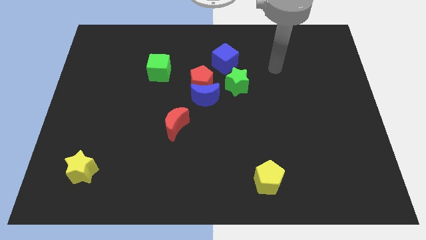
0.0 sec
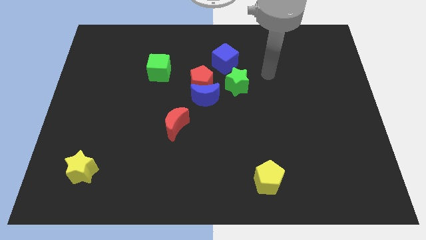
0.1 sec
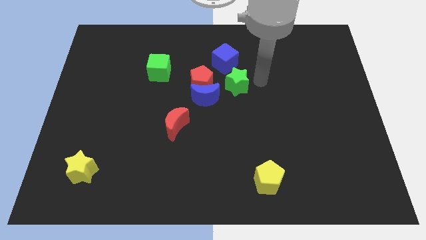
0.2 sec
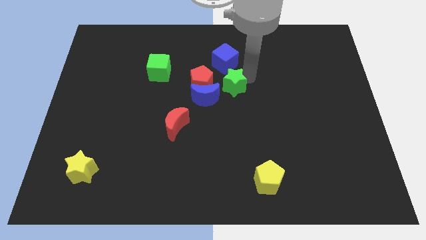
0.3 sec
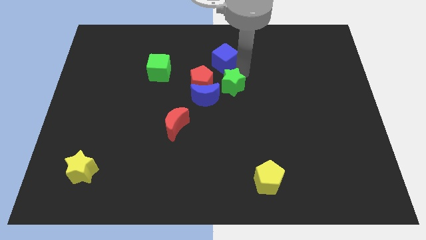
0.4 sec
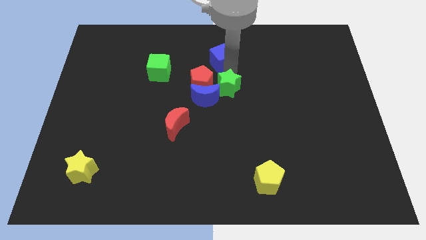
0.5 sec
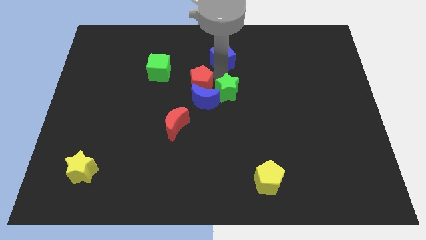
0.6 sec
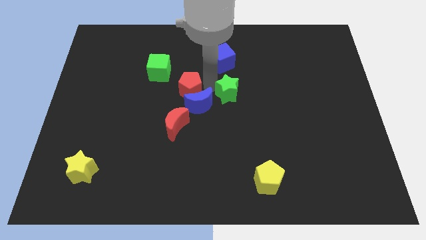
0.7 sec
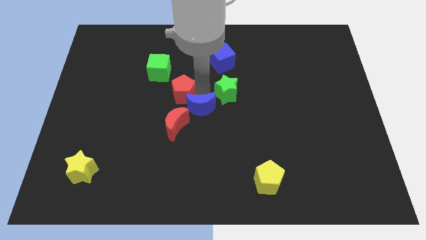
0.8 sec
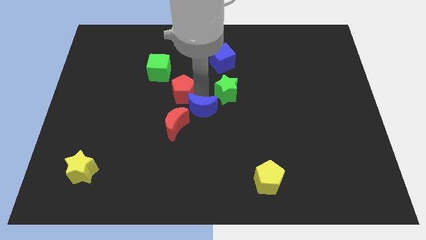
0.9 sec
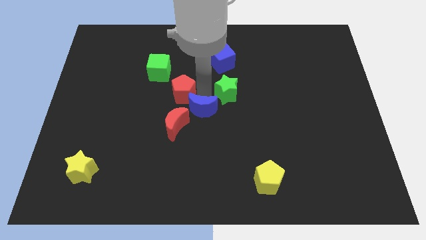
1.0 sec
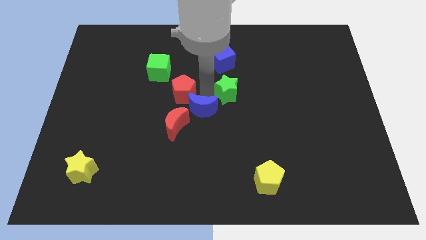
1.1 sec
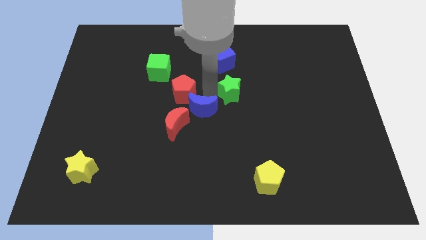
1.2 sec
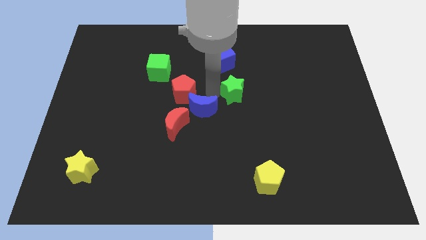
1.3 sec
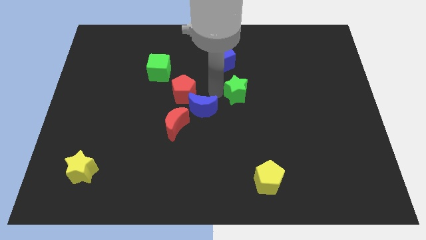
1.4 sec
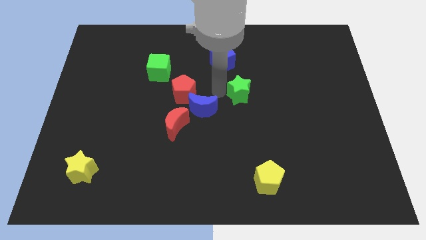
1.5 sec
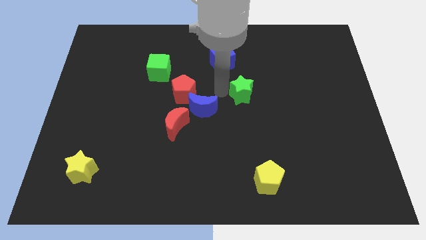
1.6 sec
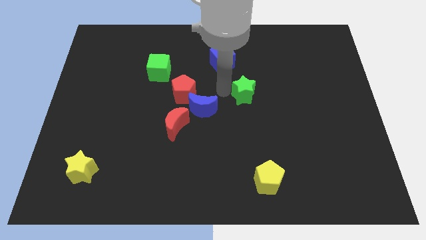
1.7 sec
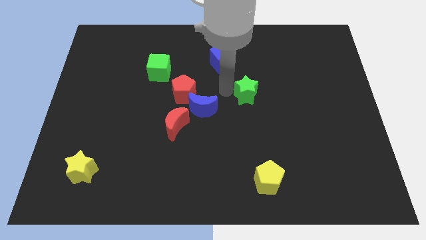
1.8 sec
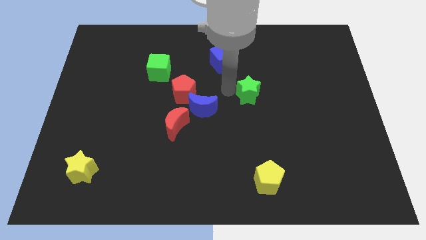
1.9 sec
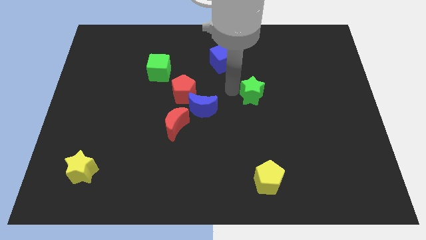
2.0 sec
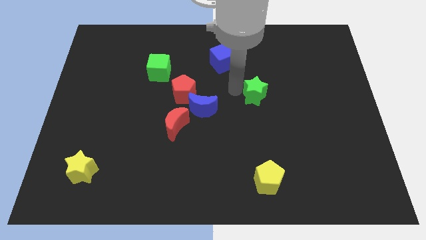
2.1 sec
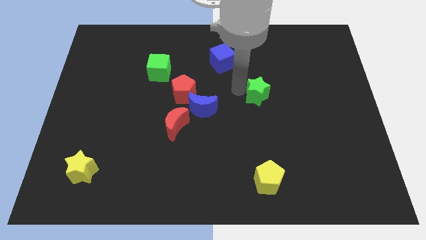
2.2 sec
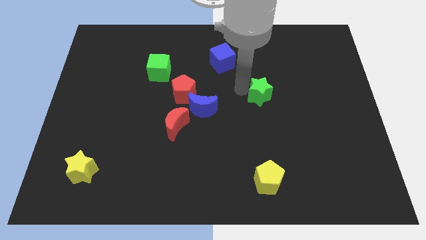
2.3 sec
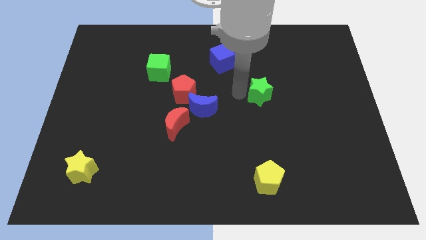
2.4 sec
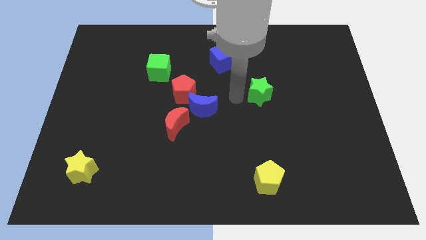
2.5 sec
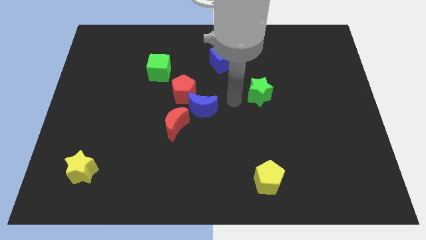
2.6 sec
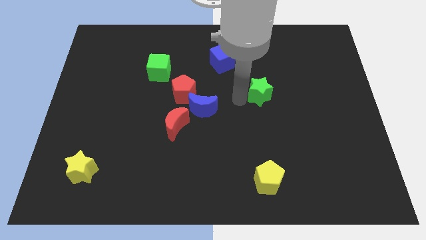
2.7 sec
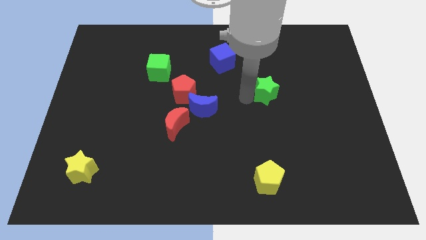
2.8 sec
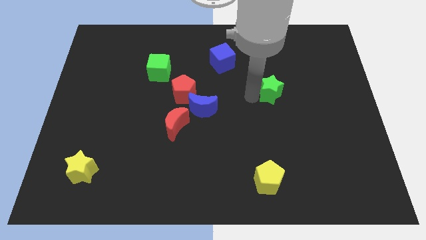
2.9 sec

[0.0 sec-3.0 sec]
move the green star right slightly

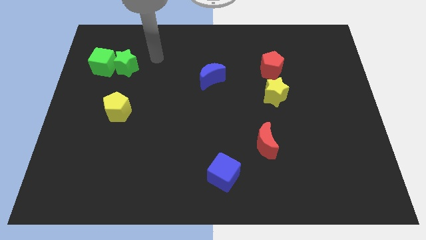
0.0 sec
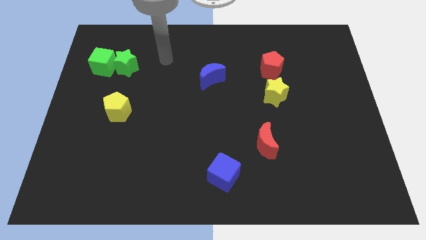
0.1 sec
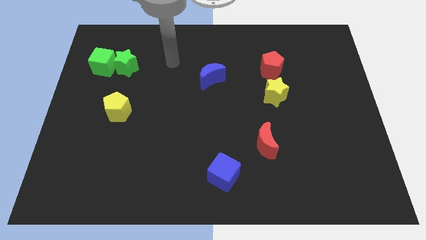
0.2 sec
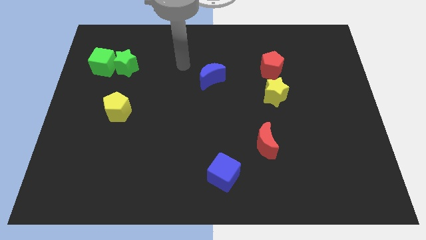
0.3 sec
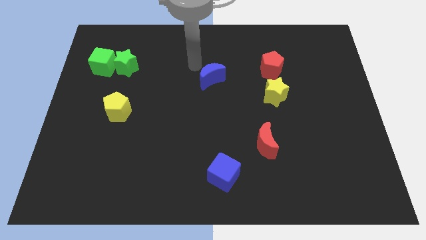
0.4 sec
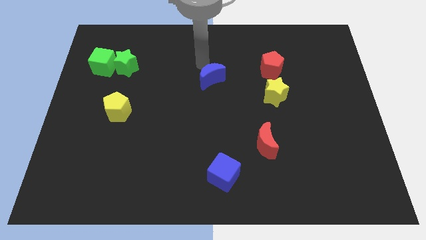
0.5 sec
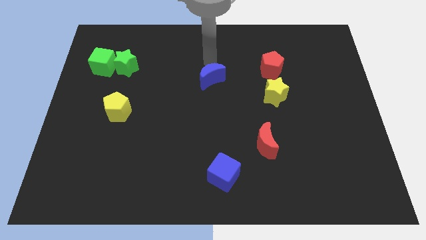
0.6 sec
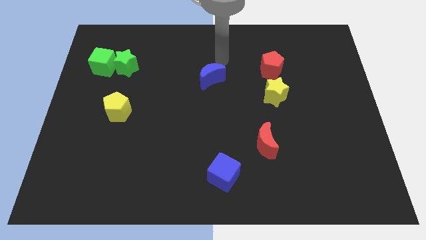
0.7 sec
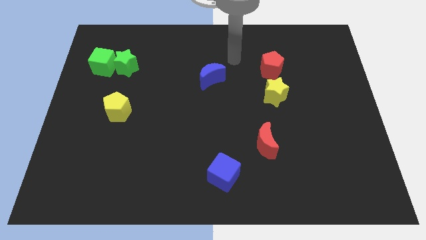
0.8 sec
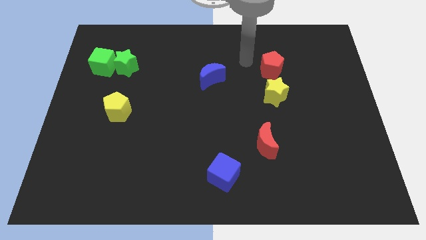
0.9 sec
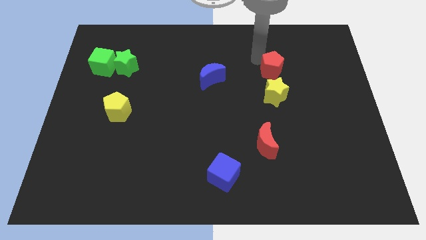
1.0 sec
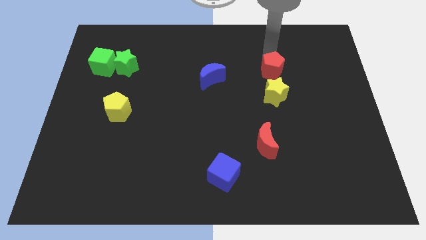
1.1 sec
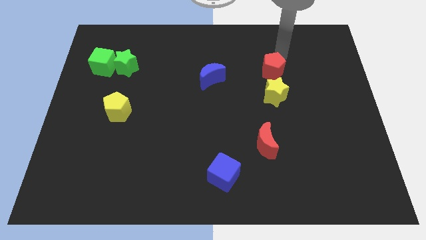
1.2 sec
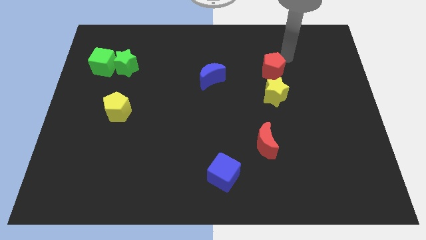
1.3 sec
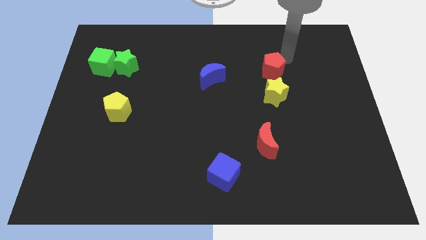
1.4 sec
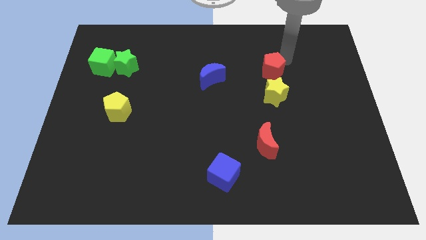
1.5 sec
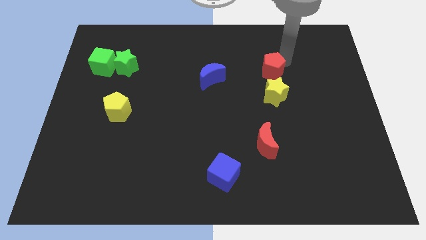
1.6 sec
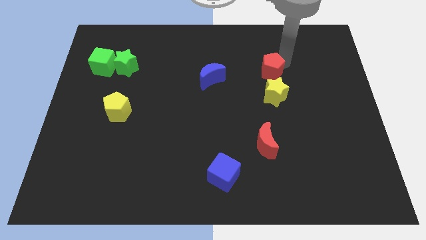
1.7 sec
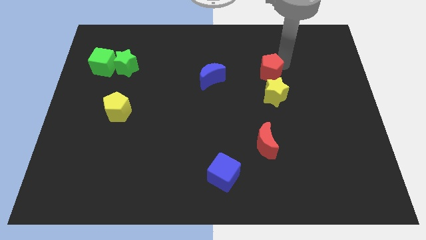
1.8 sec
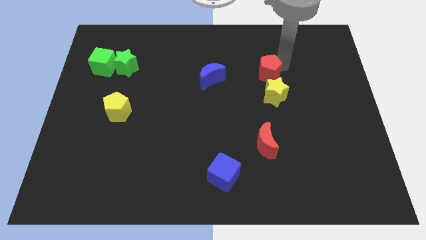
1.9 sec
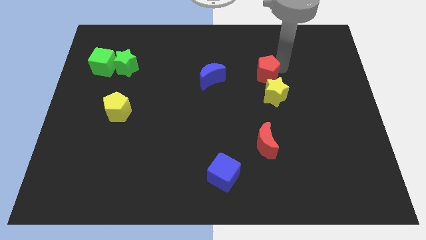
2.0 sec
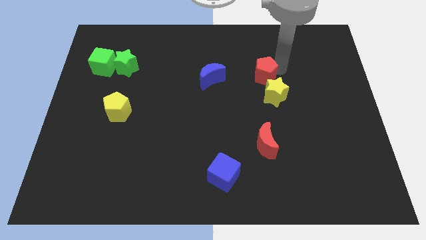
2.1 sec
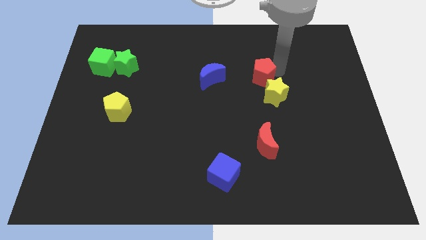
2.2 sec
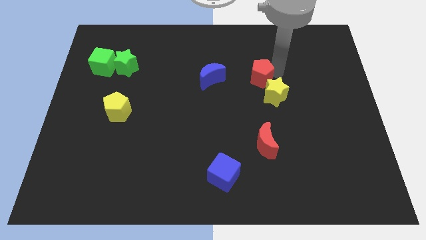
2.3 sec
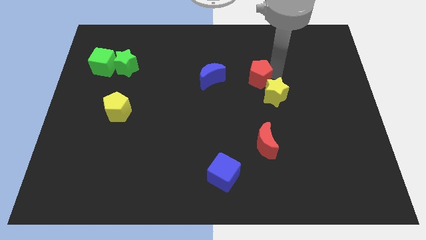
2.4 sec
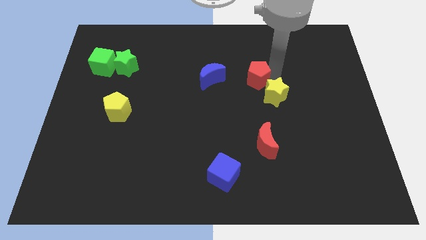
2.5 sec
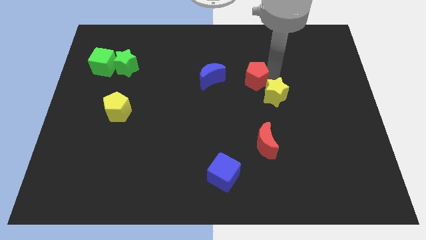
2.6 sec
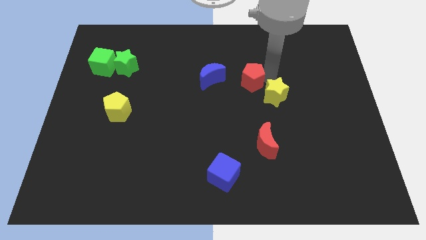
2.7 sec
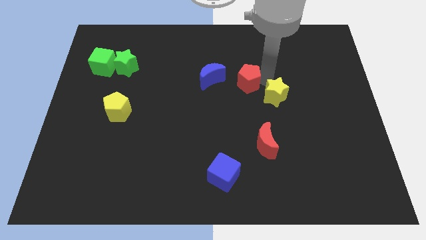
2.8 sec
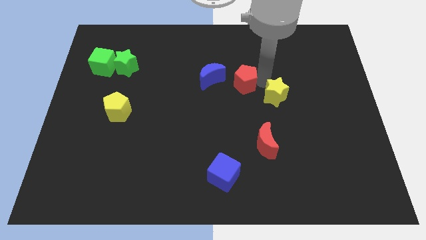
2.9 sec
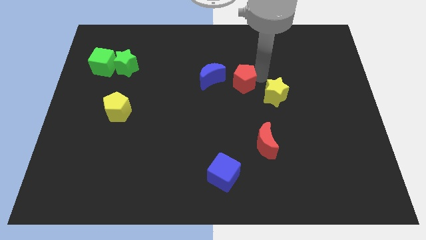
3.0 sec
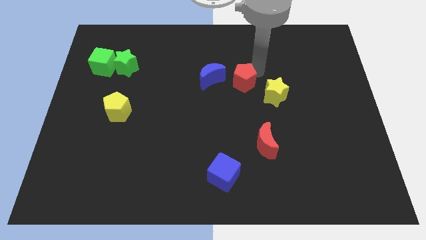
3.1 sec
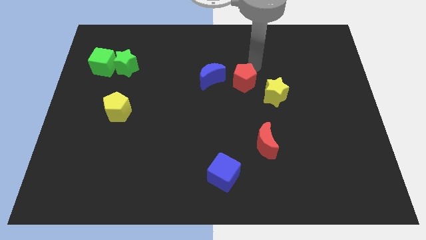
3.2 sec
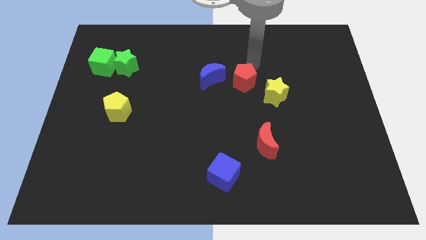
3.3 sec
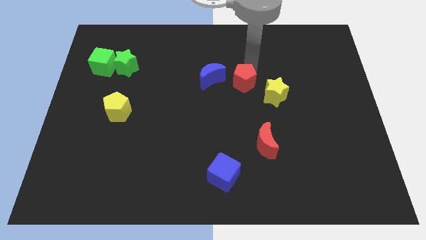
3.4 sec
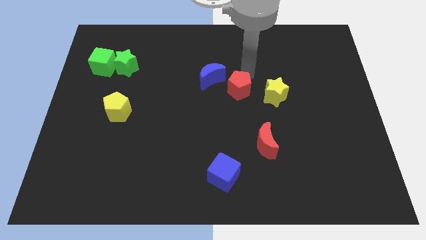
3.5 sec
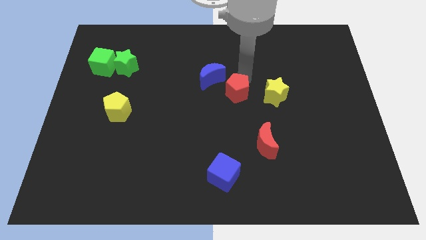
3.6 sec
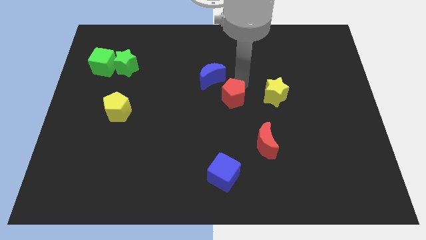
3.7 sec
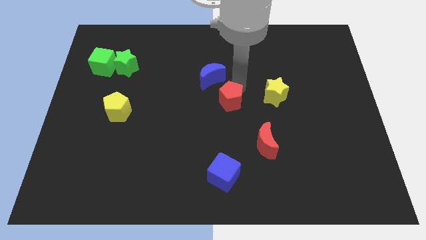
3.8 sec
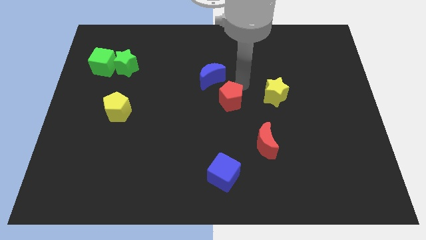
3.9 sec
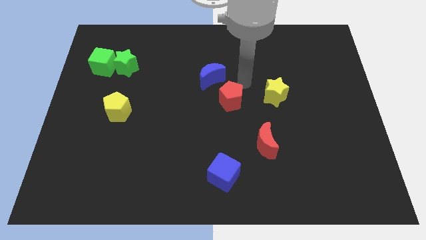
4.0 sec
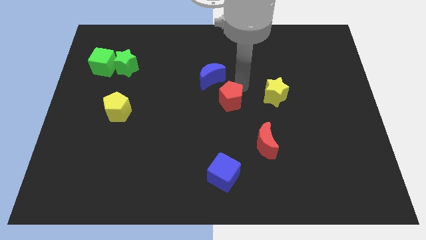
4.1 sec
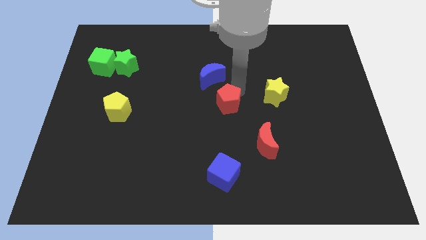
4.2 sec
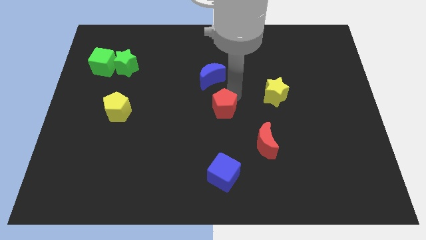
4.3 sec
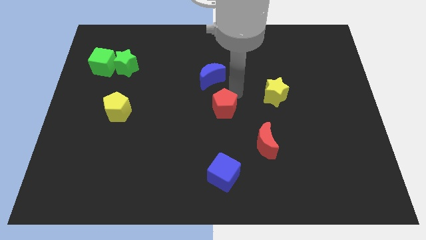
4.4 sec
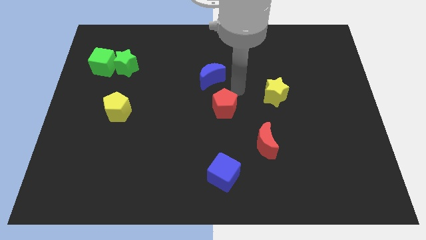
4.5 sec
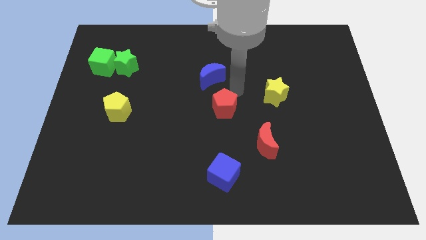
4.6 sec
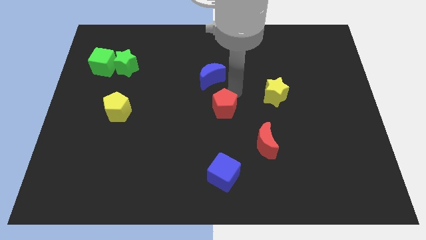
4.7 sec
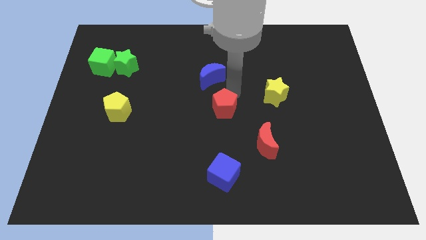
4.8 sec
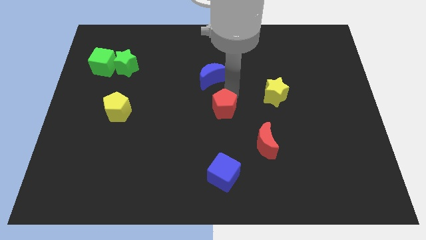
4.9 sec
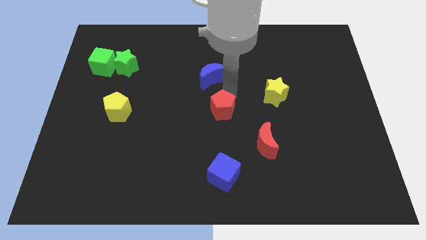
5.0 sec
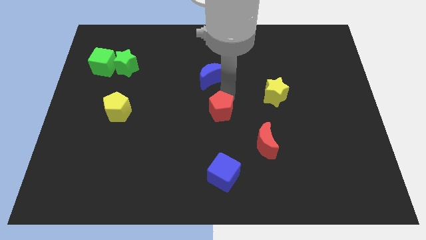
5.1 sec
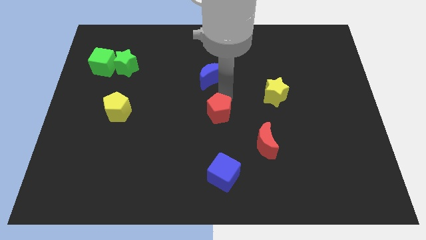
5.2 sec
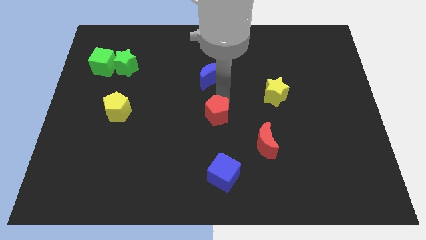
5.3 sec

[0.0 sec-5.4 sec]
slide the red pentagon down and then left
